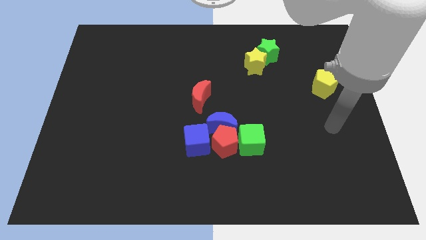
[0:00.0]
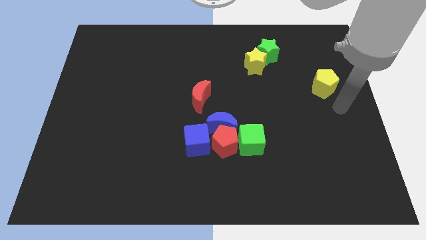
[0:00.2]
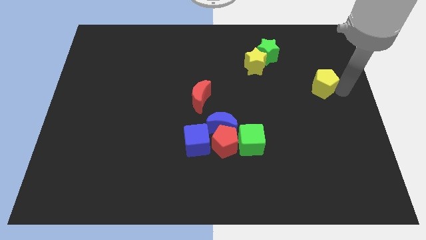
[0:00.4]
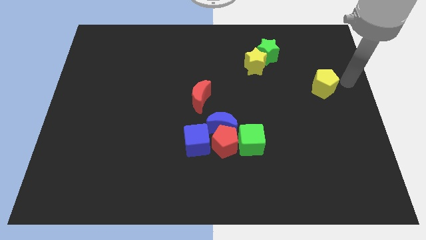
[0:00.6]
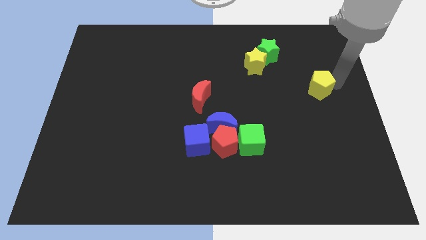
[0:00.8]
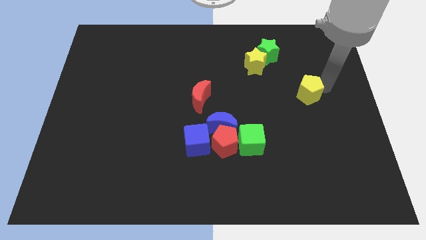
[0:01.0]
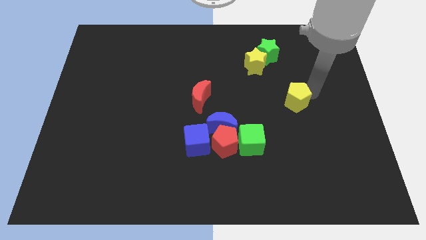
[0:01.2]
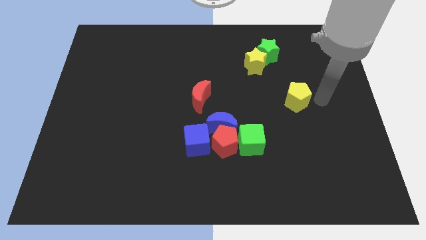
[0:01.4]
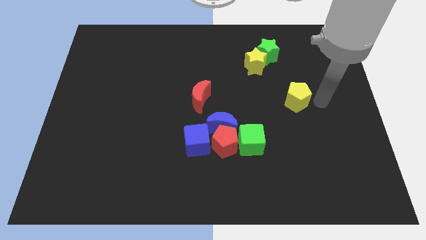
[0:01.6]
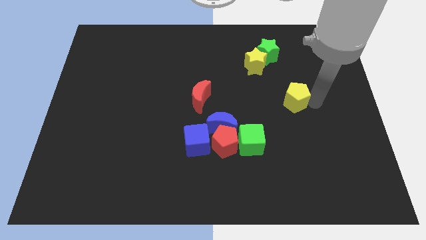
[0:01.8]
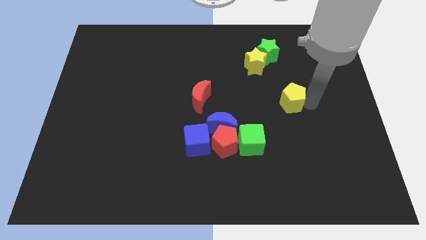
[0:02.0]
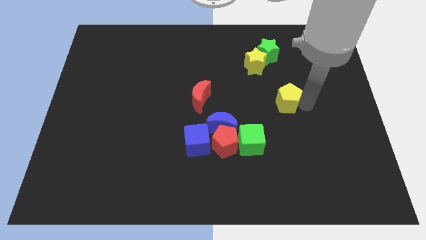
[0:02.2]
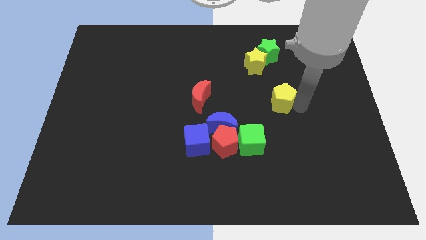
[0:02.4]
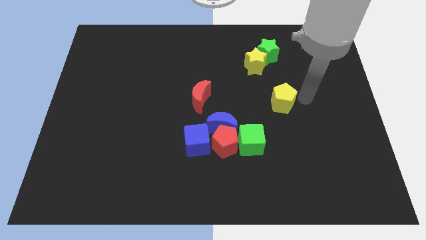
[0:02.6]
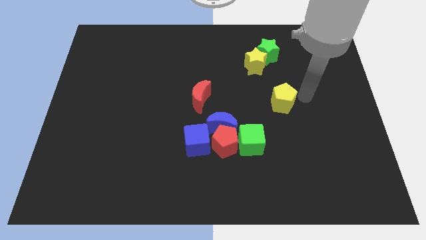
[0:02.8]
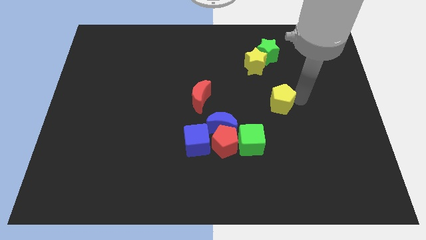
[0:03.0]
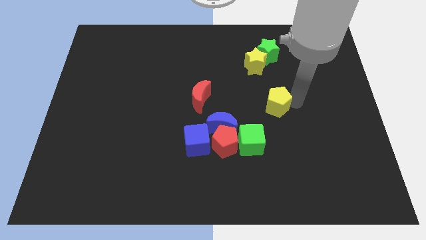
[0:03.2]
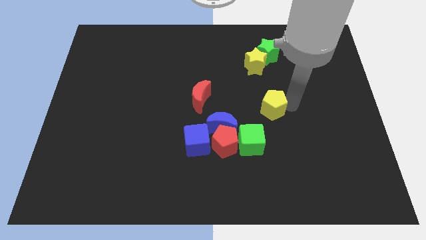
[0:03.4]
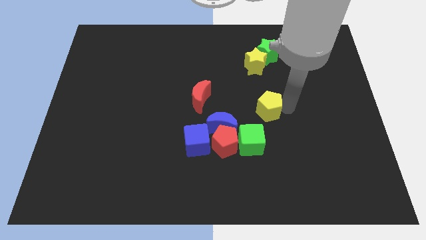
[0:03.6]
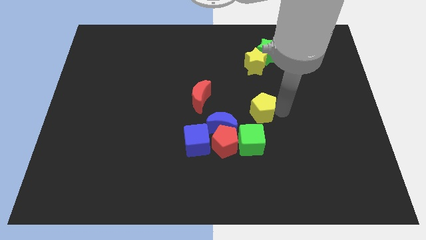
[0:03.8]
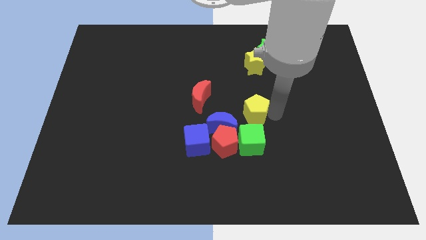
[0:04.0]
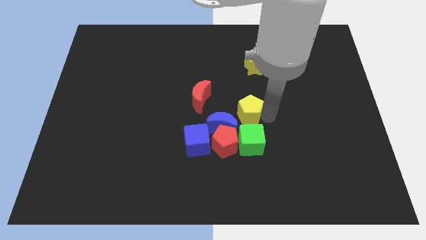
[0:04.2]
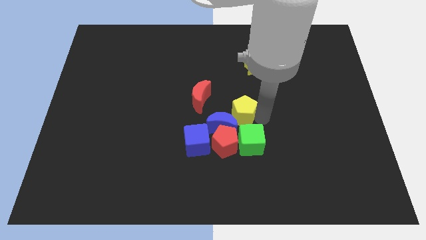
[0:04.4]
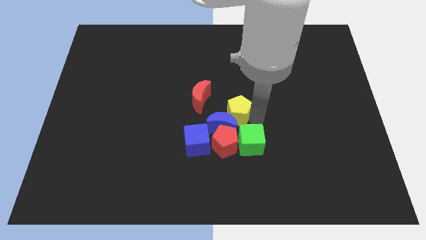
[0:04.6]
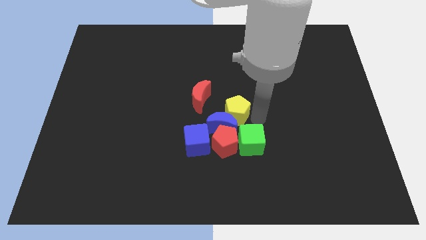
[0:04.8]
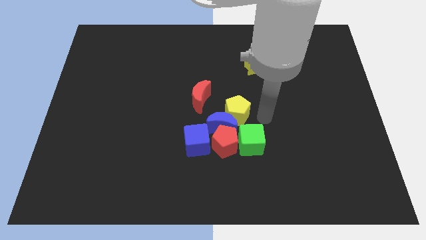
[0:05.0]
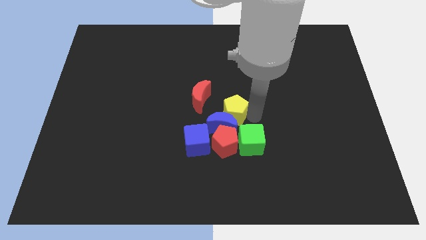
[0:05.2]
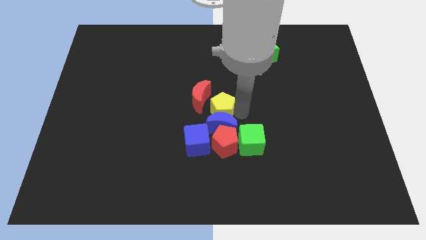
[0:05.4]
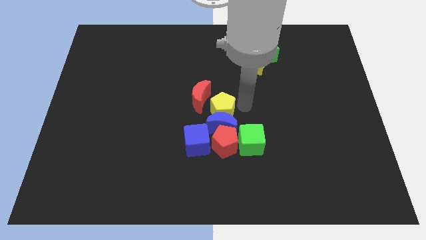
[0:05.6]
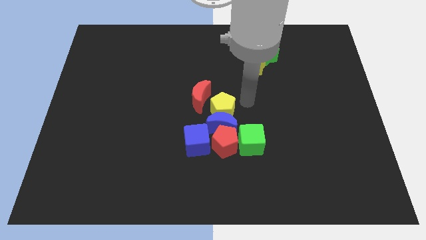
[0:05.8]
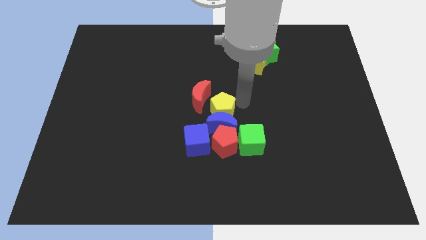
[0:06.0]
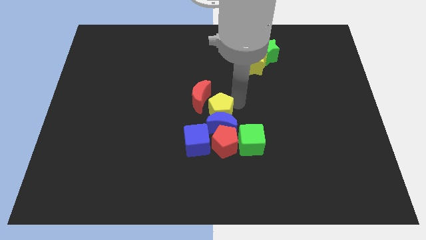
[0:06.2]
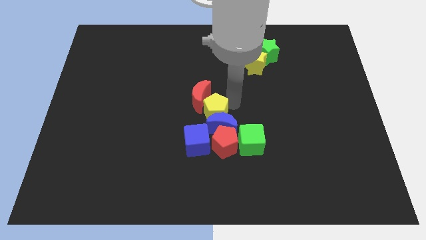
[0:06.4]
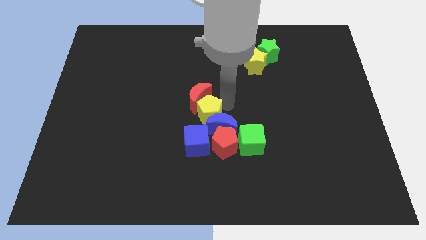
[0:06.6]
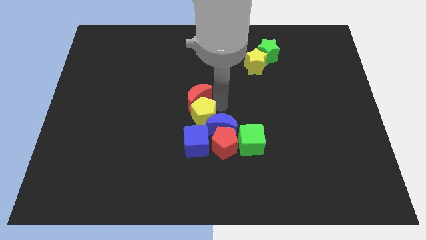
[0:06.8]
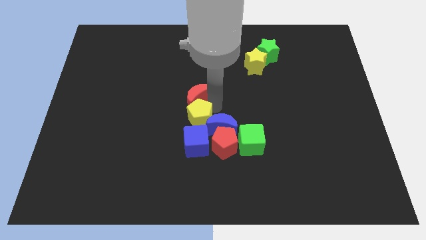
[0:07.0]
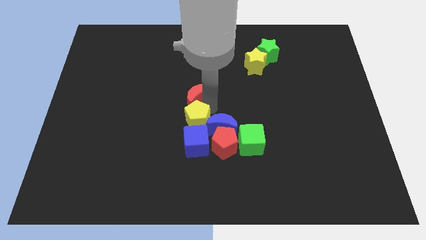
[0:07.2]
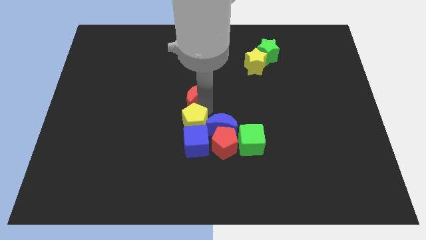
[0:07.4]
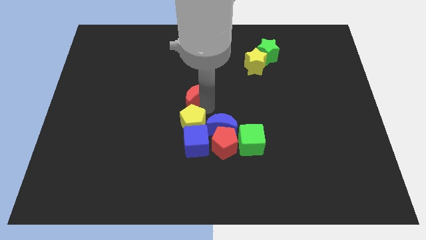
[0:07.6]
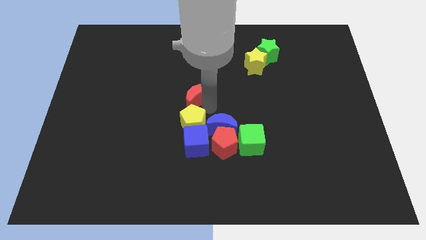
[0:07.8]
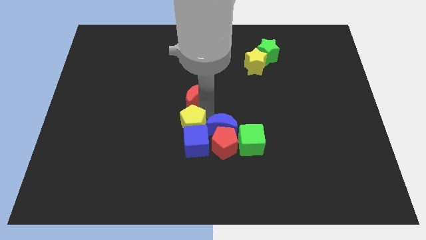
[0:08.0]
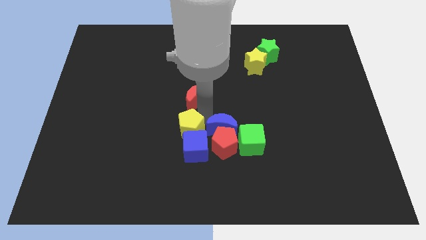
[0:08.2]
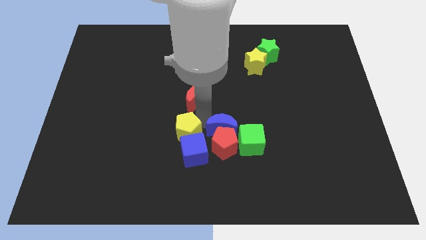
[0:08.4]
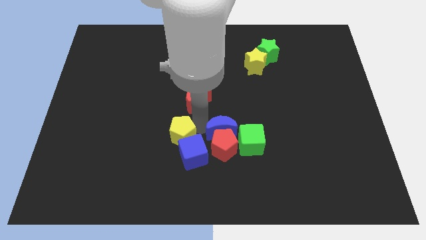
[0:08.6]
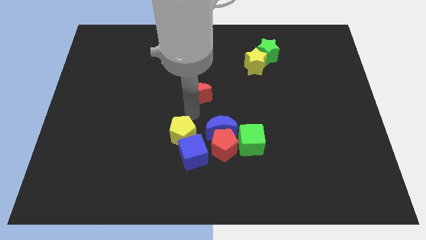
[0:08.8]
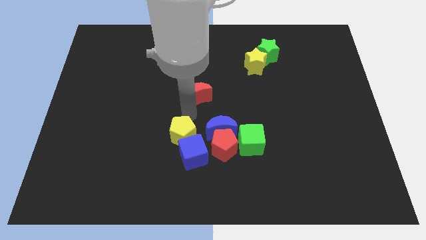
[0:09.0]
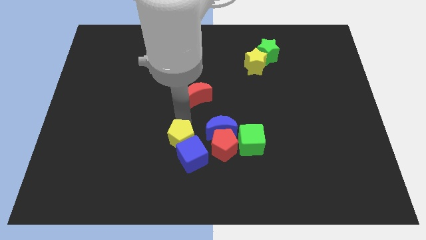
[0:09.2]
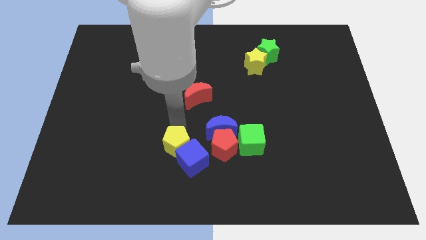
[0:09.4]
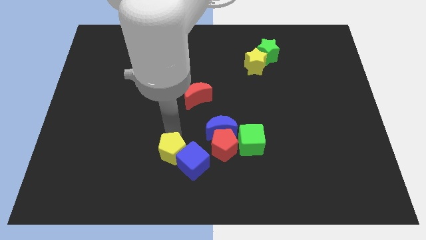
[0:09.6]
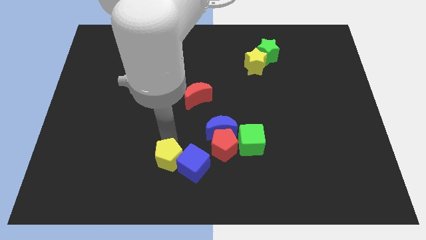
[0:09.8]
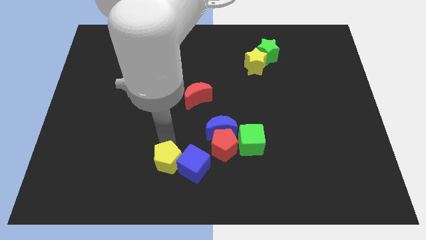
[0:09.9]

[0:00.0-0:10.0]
slide the yellow pentagon to the bottom left of the blue cube

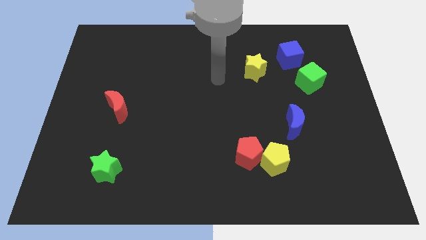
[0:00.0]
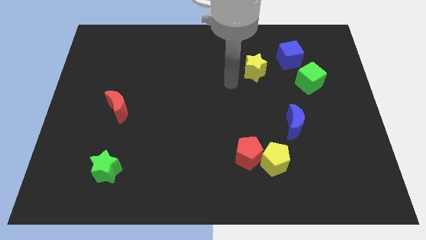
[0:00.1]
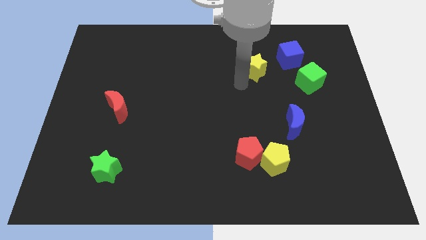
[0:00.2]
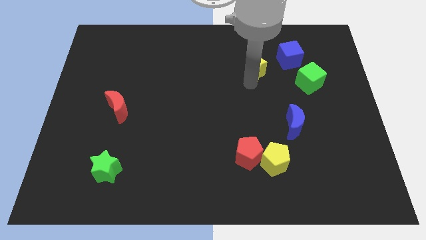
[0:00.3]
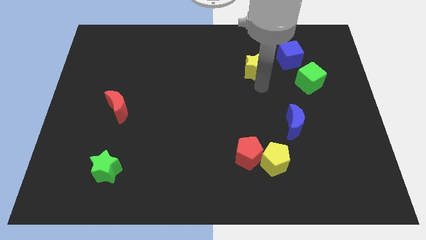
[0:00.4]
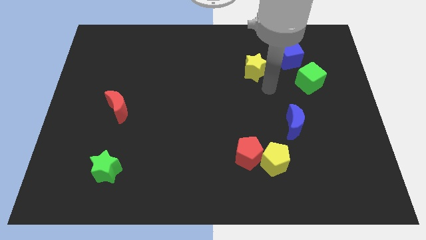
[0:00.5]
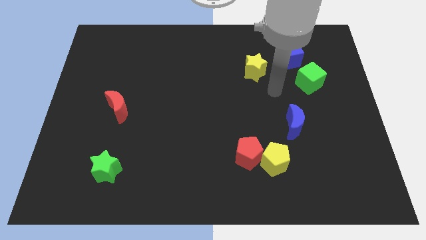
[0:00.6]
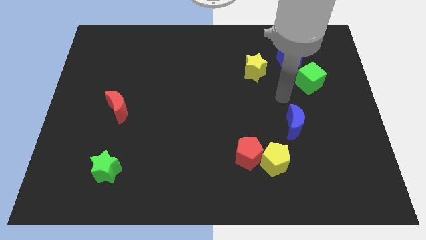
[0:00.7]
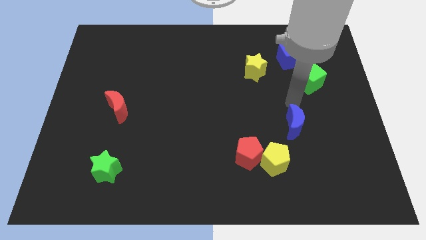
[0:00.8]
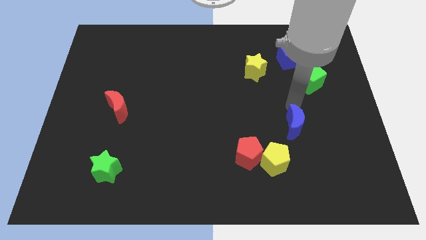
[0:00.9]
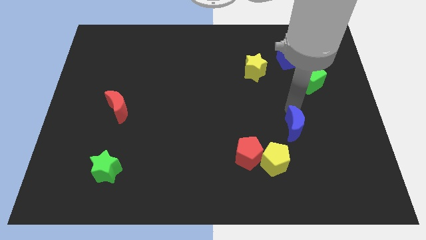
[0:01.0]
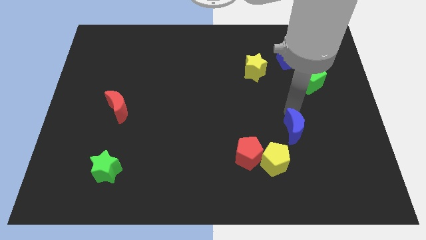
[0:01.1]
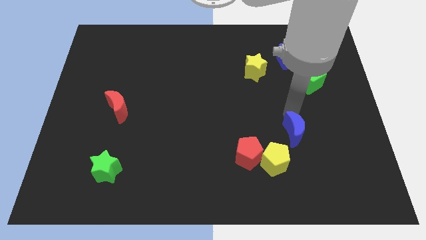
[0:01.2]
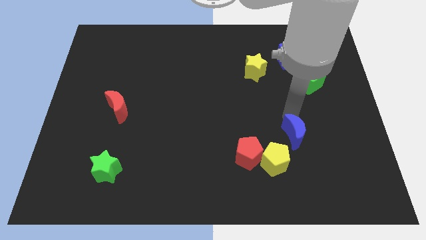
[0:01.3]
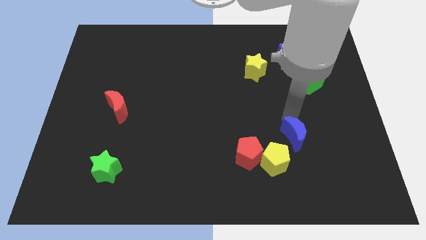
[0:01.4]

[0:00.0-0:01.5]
slide the blue moon just right of the red pentagon
